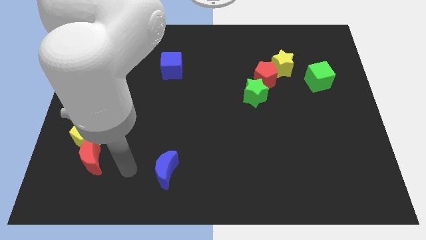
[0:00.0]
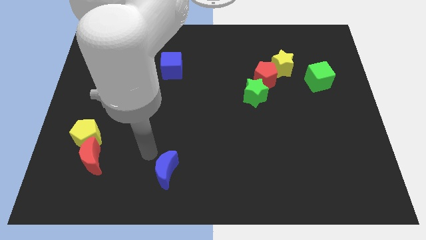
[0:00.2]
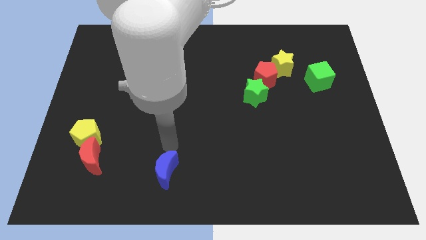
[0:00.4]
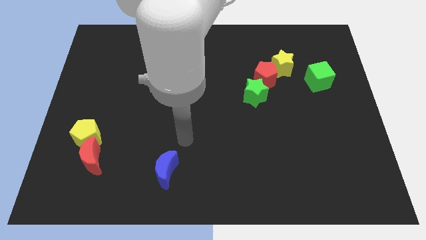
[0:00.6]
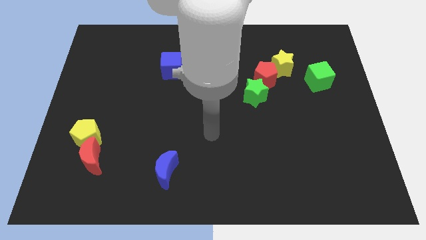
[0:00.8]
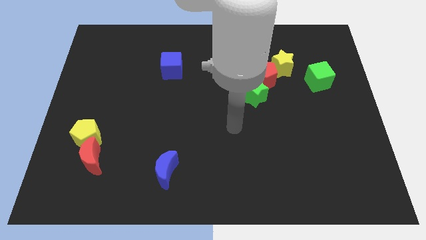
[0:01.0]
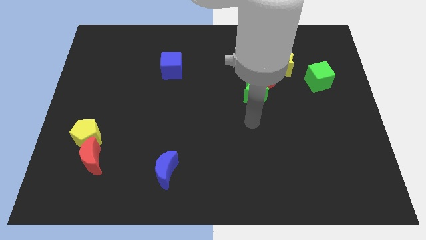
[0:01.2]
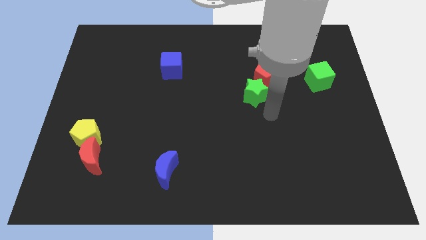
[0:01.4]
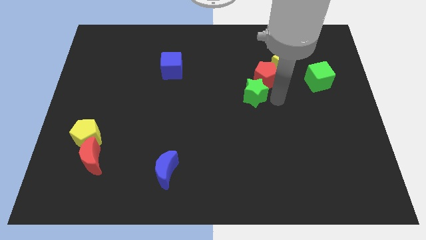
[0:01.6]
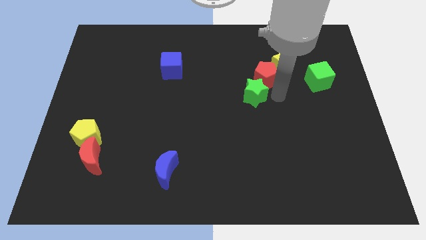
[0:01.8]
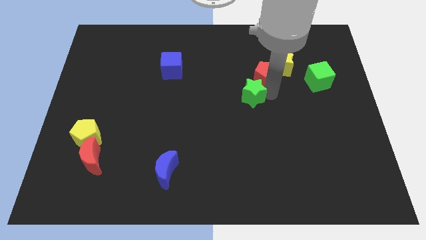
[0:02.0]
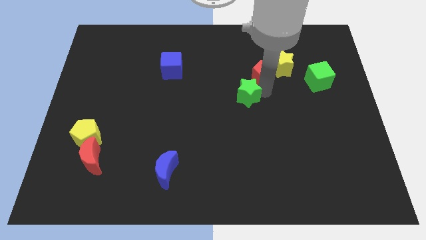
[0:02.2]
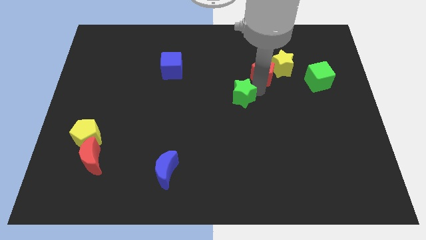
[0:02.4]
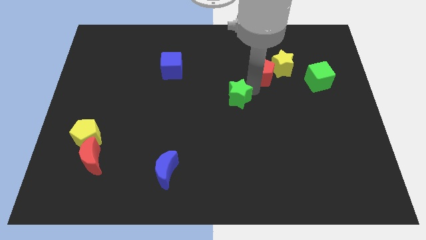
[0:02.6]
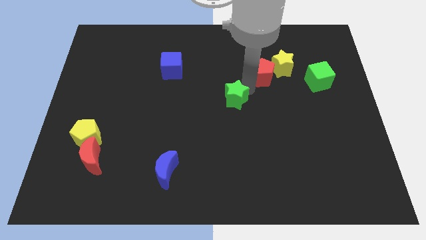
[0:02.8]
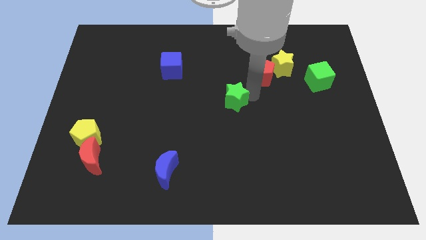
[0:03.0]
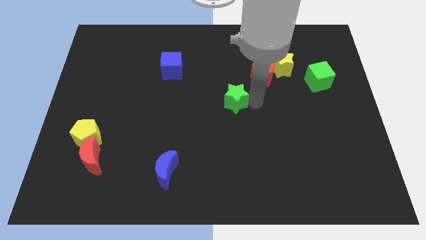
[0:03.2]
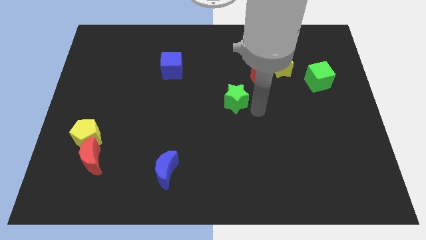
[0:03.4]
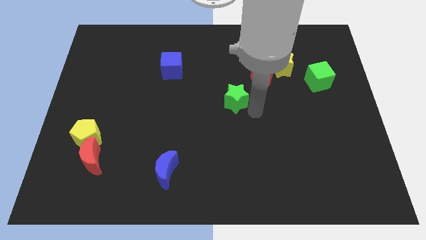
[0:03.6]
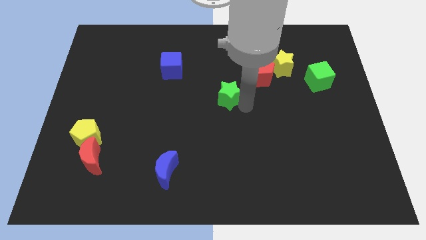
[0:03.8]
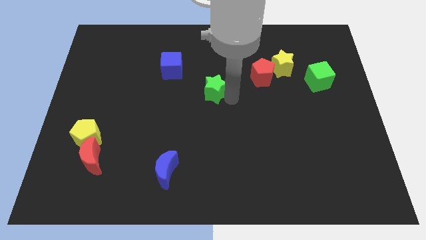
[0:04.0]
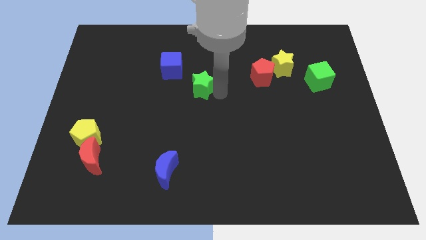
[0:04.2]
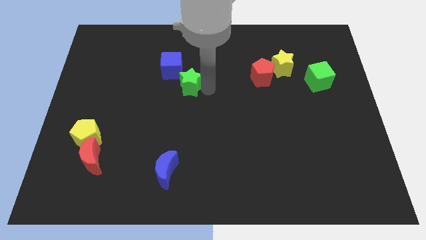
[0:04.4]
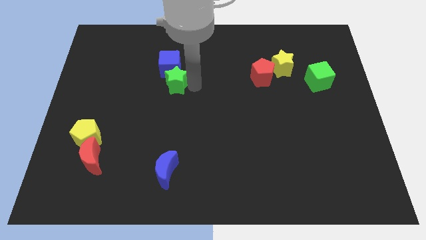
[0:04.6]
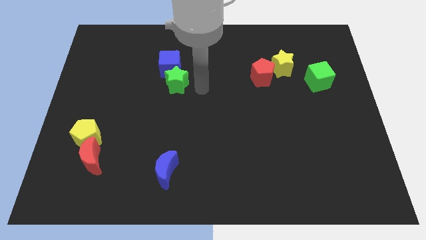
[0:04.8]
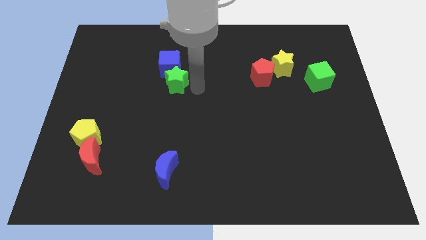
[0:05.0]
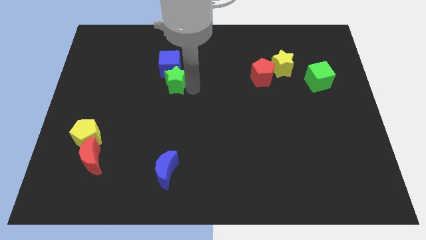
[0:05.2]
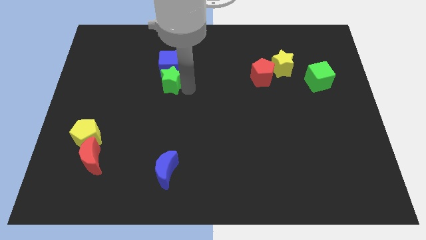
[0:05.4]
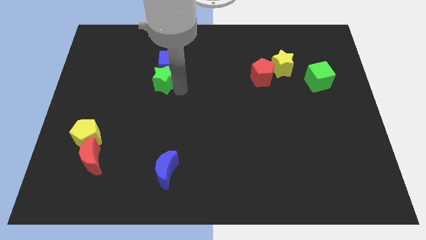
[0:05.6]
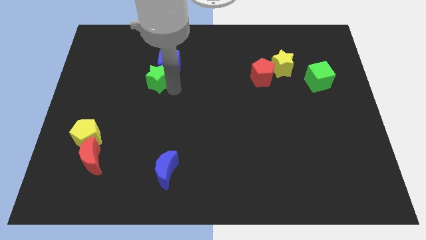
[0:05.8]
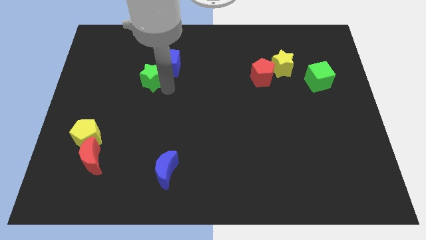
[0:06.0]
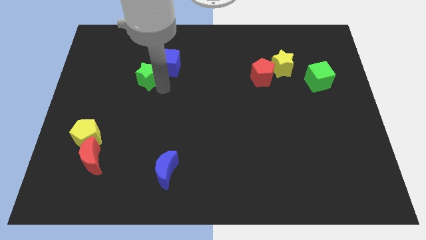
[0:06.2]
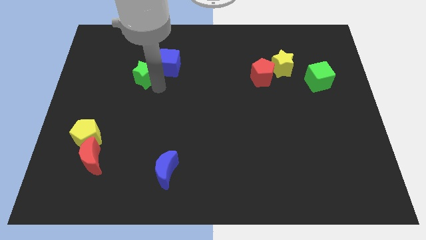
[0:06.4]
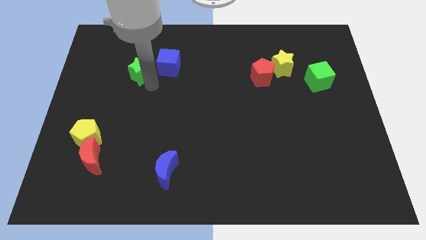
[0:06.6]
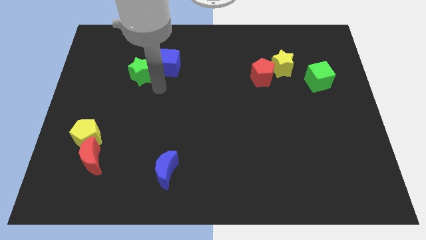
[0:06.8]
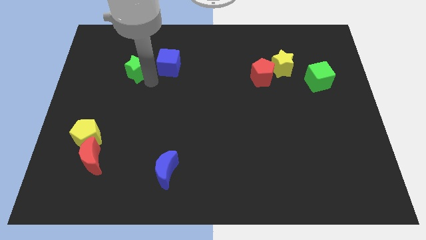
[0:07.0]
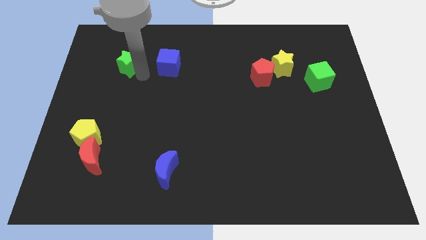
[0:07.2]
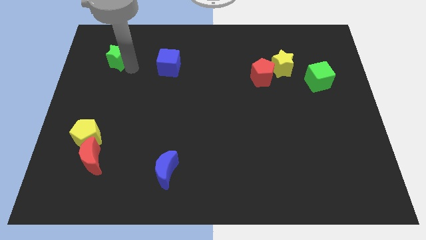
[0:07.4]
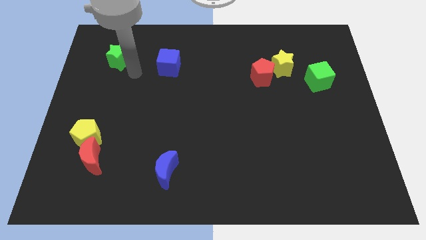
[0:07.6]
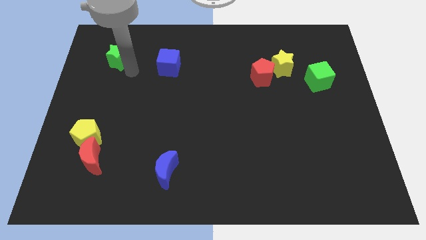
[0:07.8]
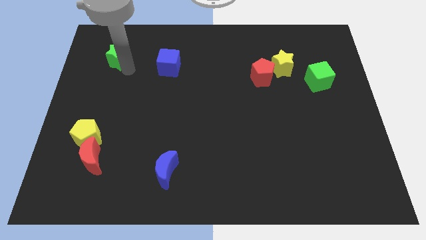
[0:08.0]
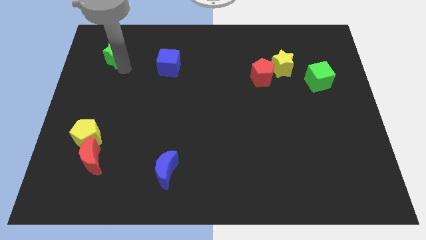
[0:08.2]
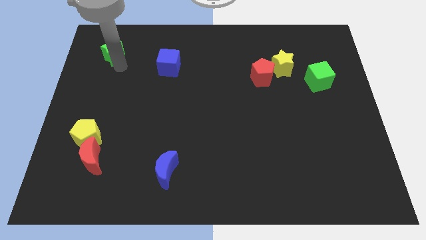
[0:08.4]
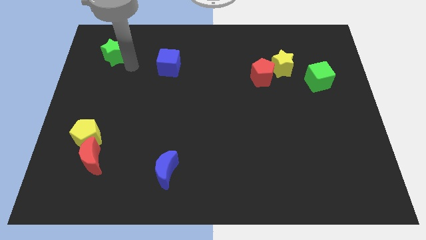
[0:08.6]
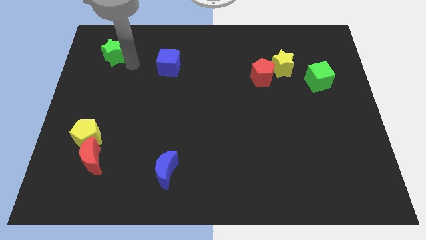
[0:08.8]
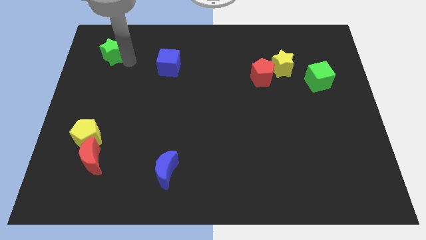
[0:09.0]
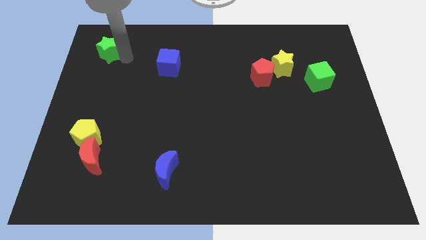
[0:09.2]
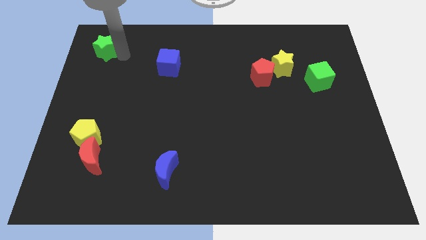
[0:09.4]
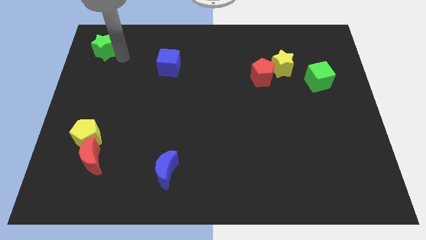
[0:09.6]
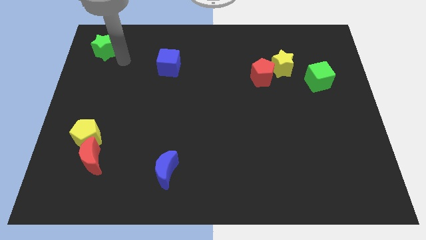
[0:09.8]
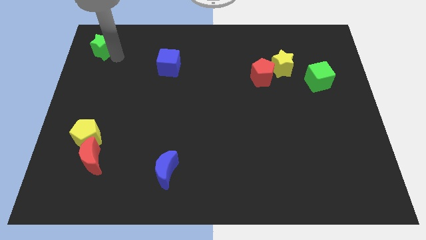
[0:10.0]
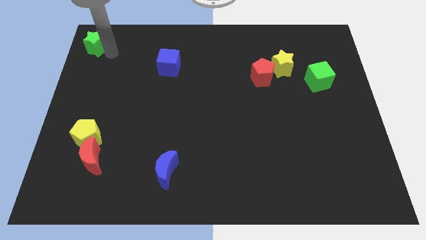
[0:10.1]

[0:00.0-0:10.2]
put the green star to the top left of the board
